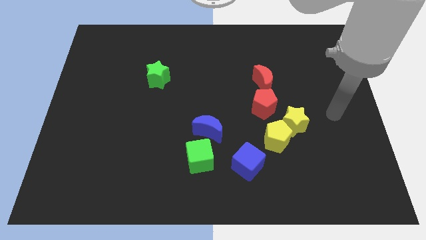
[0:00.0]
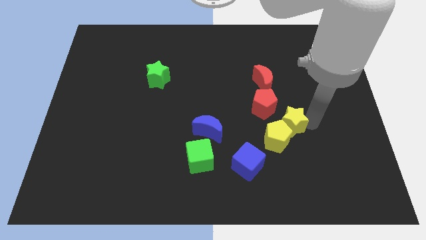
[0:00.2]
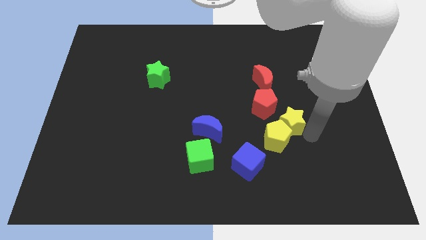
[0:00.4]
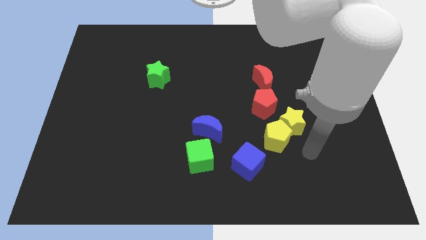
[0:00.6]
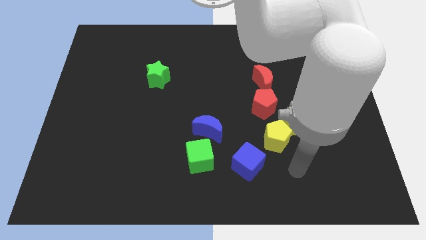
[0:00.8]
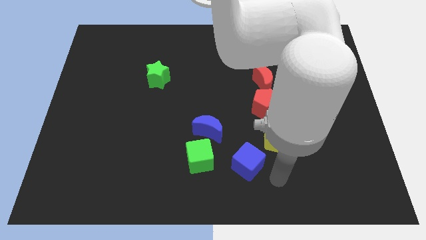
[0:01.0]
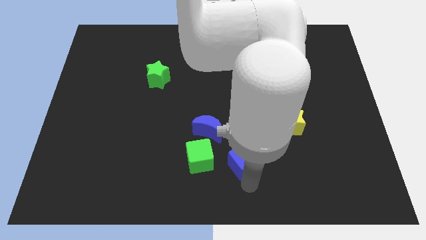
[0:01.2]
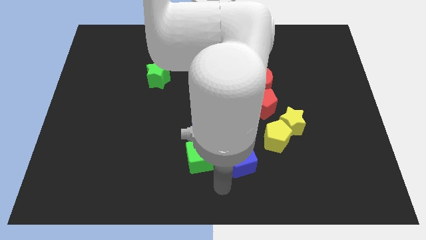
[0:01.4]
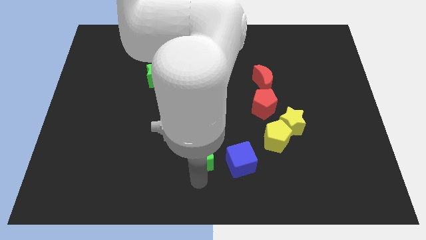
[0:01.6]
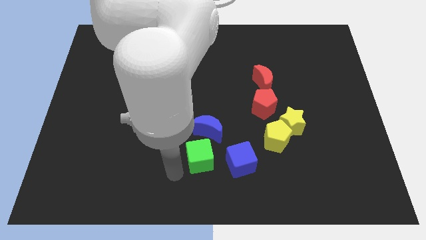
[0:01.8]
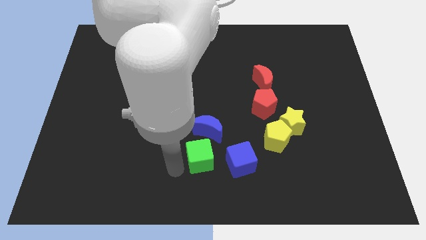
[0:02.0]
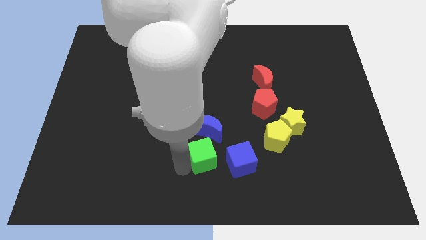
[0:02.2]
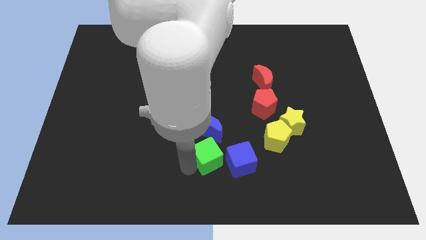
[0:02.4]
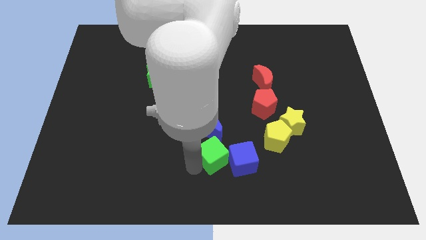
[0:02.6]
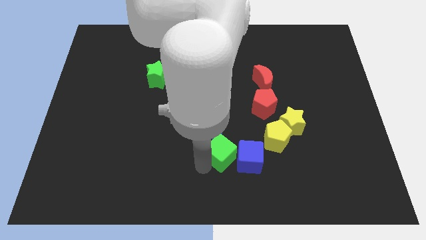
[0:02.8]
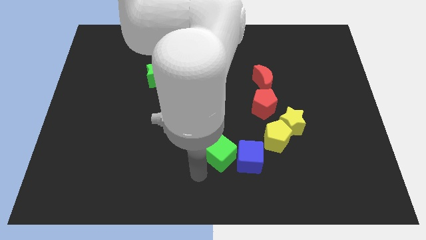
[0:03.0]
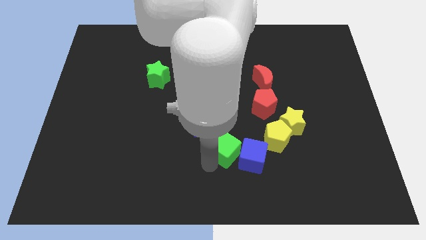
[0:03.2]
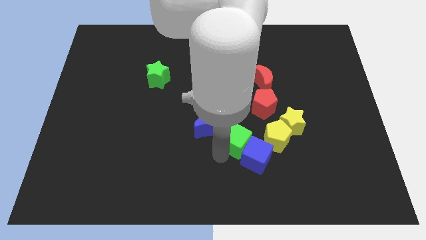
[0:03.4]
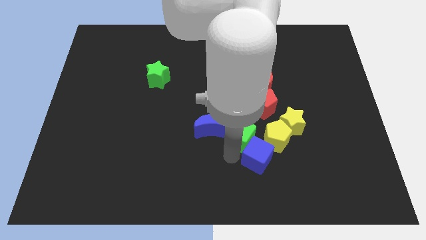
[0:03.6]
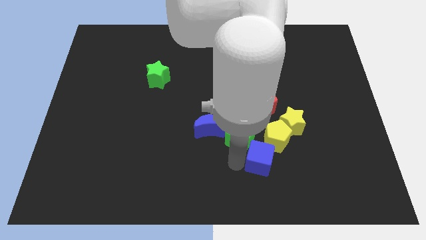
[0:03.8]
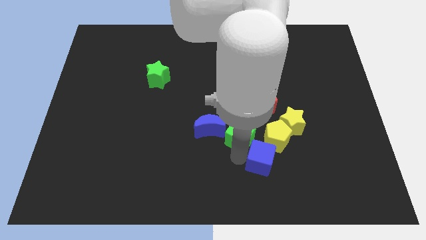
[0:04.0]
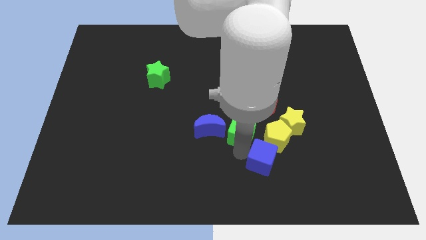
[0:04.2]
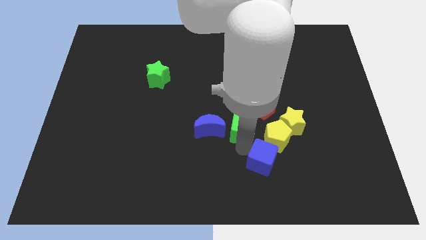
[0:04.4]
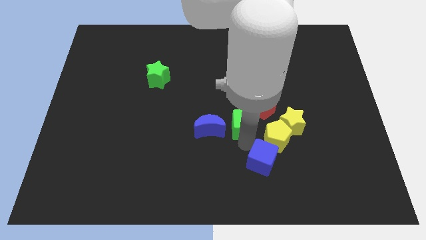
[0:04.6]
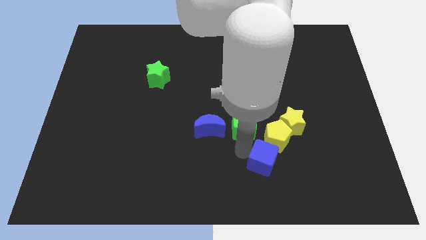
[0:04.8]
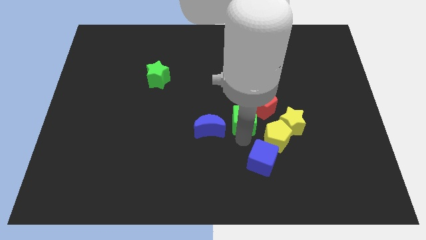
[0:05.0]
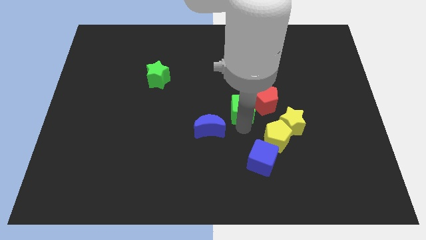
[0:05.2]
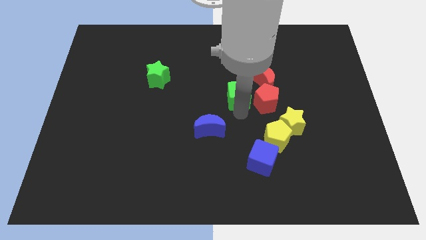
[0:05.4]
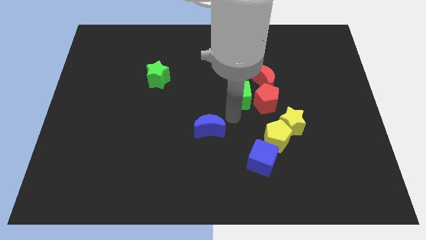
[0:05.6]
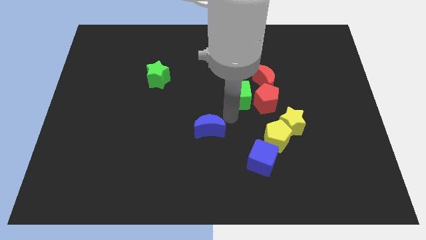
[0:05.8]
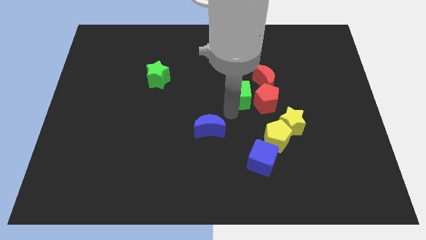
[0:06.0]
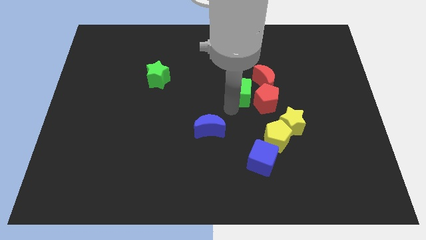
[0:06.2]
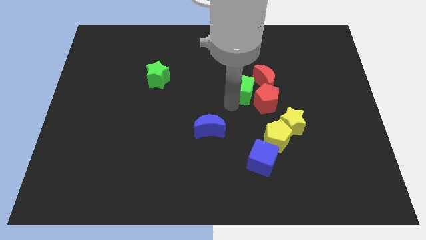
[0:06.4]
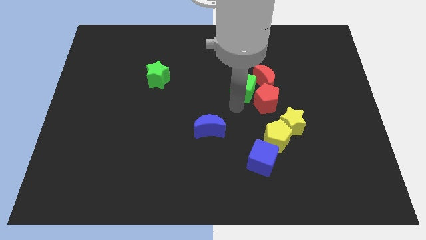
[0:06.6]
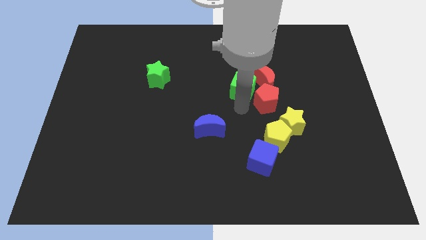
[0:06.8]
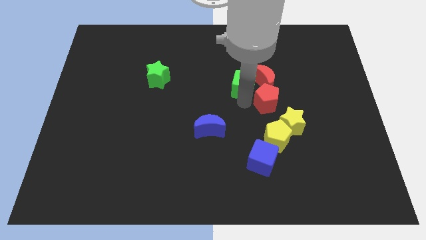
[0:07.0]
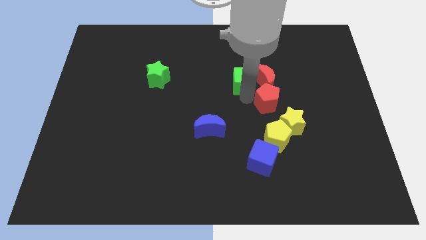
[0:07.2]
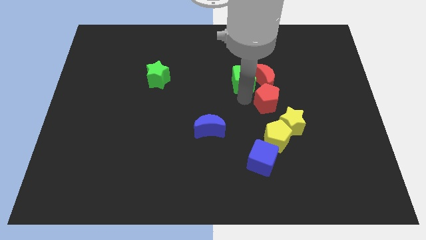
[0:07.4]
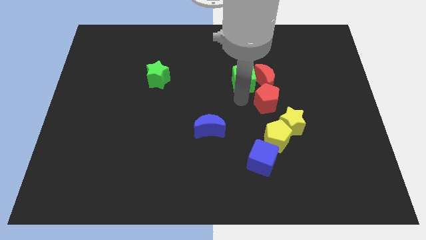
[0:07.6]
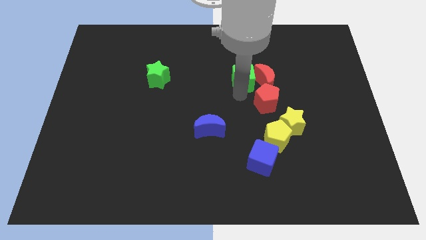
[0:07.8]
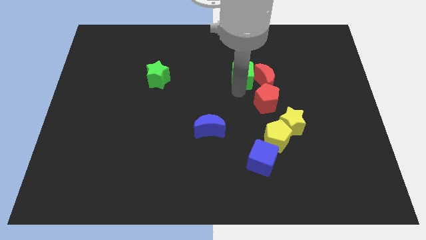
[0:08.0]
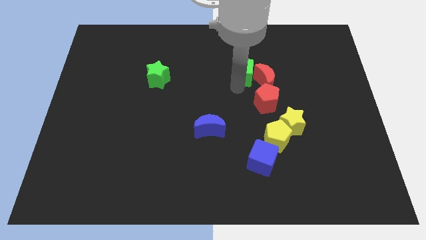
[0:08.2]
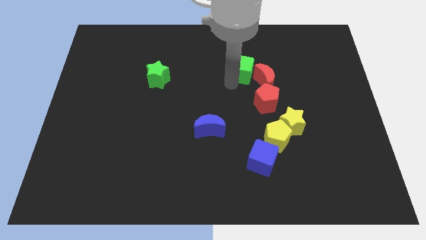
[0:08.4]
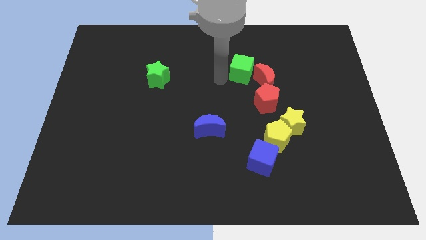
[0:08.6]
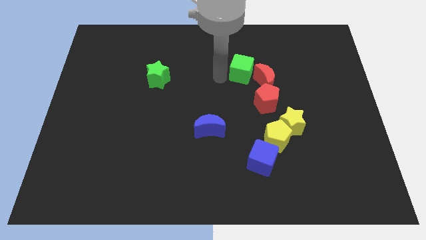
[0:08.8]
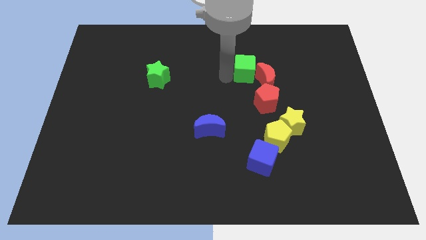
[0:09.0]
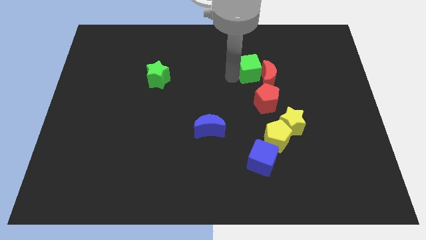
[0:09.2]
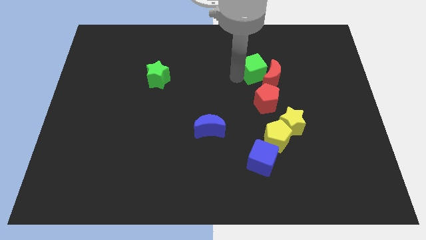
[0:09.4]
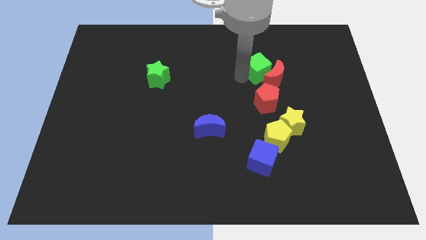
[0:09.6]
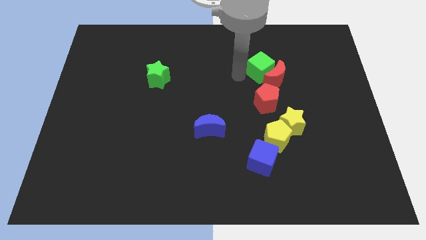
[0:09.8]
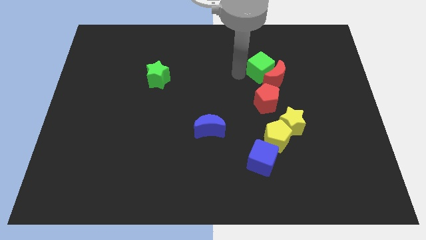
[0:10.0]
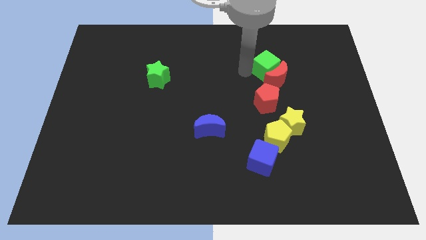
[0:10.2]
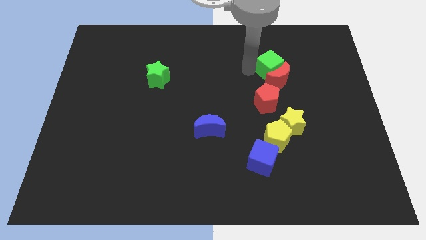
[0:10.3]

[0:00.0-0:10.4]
push the green cube to the top right of the red moon

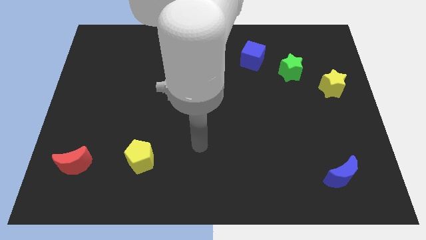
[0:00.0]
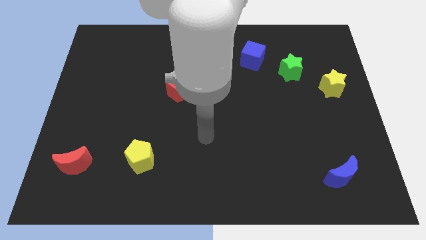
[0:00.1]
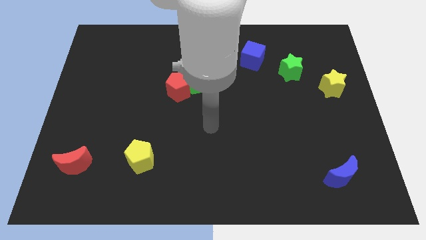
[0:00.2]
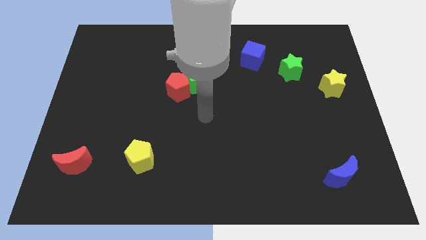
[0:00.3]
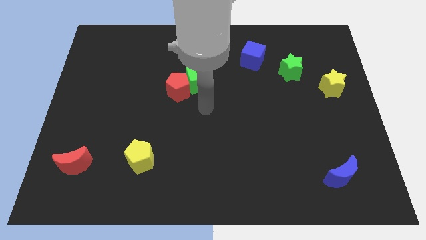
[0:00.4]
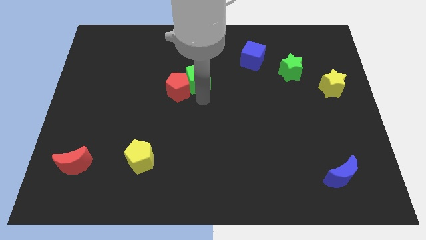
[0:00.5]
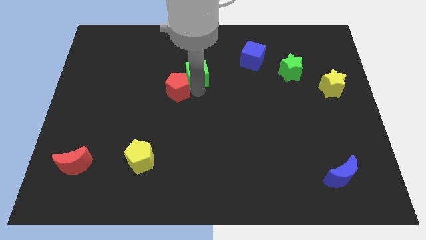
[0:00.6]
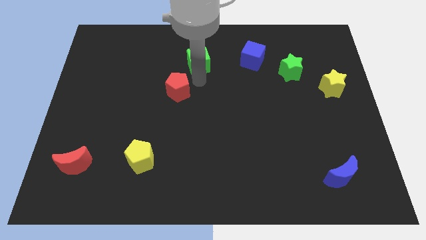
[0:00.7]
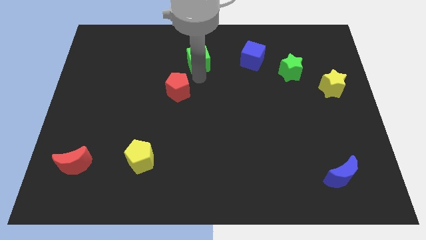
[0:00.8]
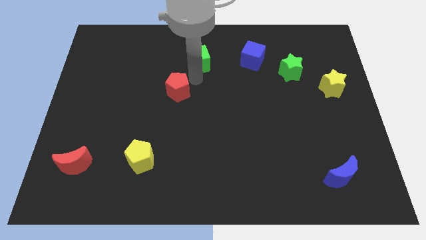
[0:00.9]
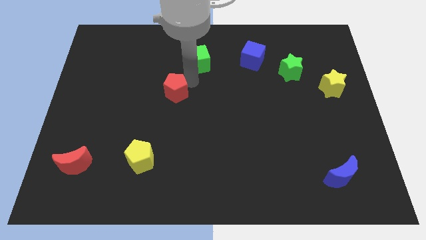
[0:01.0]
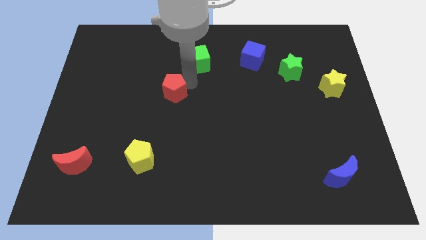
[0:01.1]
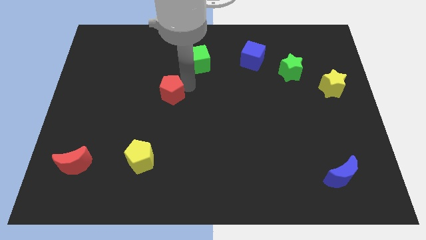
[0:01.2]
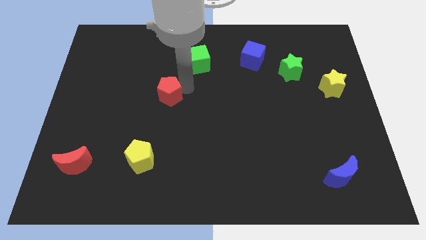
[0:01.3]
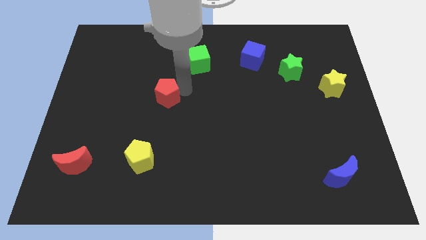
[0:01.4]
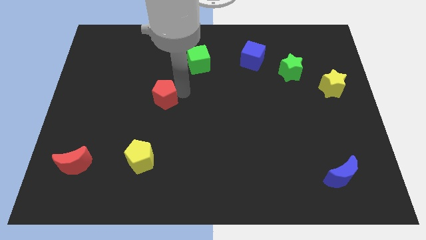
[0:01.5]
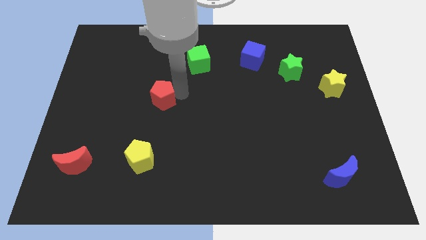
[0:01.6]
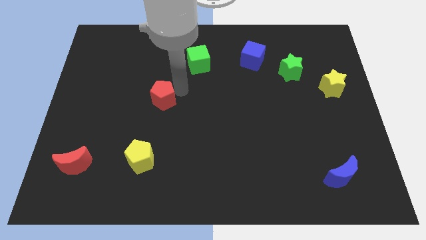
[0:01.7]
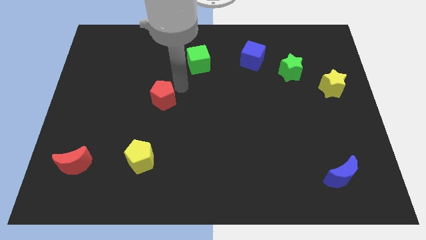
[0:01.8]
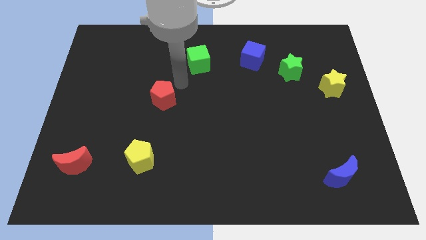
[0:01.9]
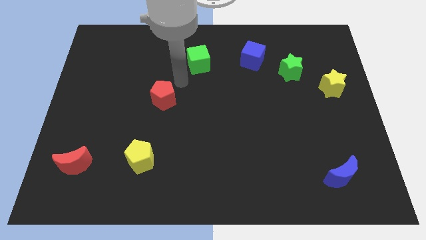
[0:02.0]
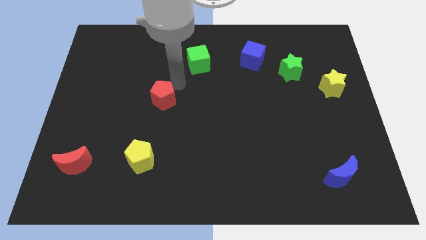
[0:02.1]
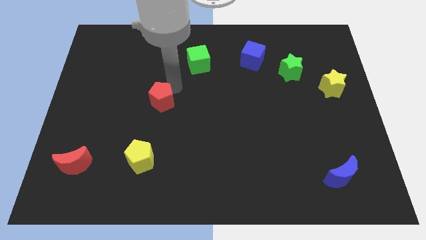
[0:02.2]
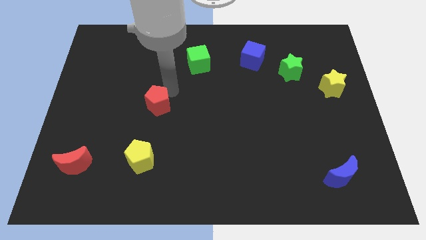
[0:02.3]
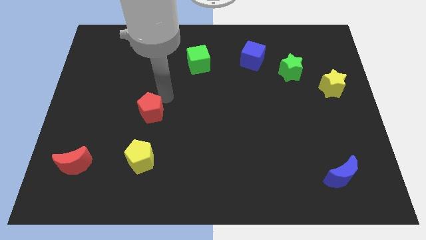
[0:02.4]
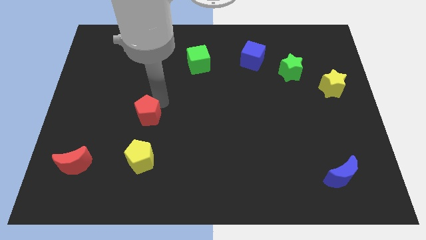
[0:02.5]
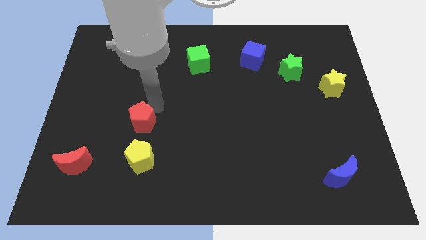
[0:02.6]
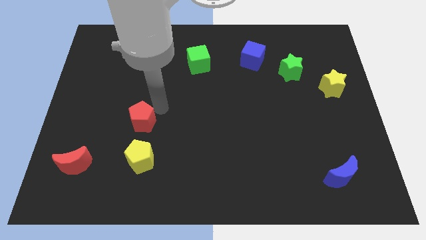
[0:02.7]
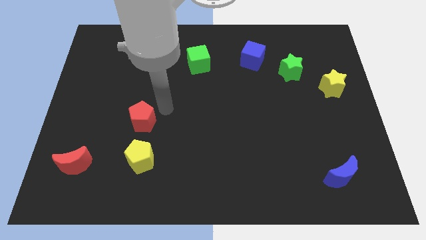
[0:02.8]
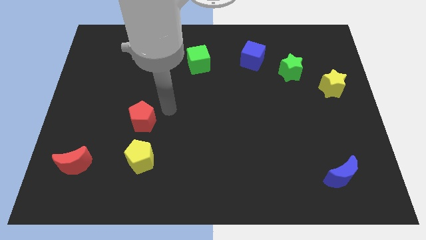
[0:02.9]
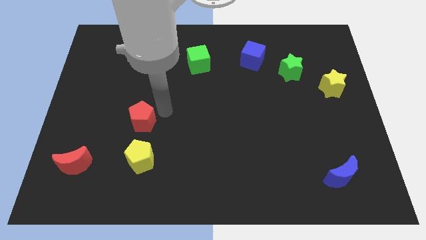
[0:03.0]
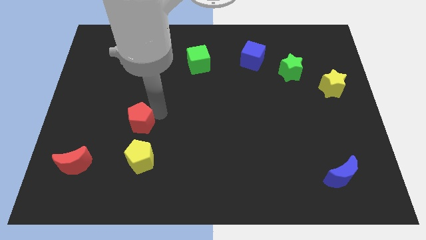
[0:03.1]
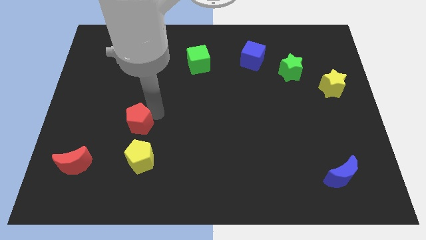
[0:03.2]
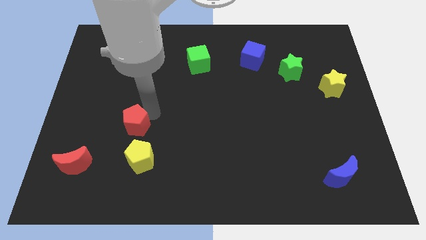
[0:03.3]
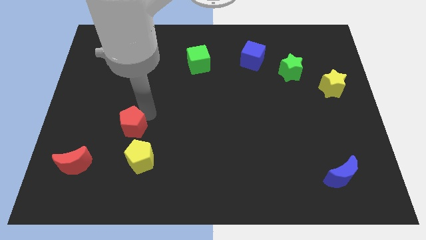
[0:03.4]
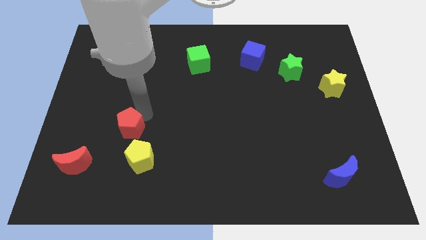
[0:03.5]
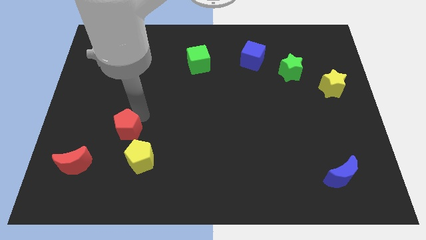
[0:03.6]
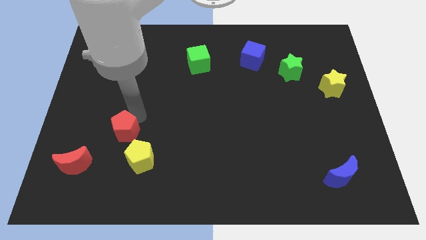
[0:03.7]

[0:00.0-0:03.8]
move the red pentagon diagonally up and to the right of the red moon
